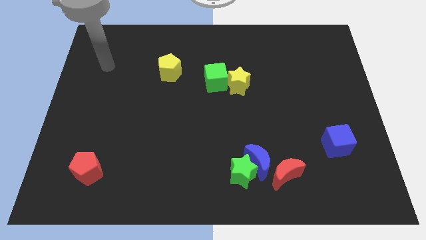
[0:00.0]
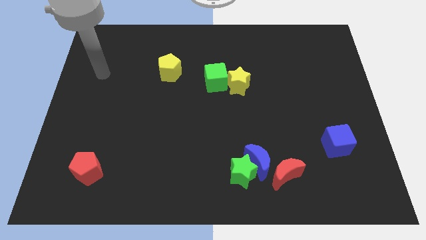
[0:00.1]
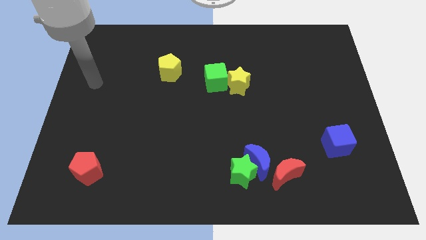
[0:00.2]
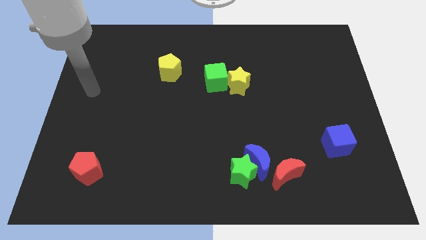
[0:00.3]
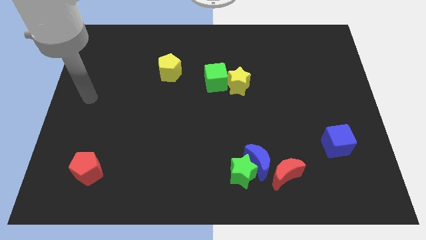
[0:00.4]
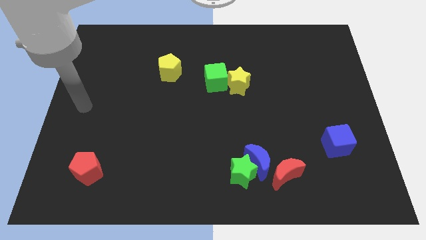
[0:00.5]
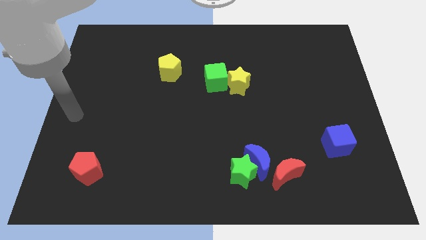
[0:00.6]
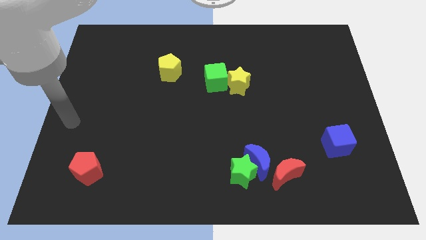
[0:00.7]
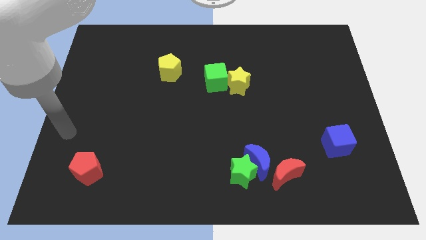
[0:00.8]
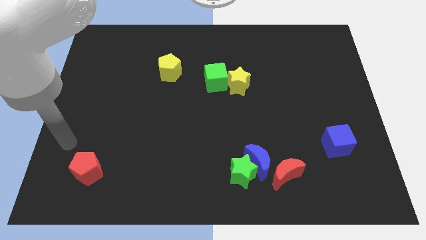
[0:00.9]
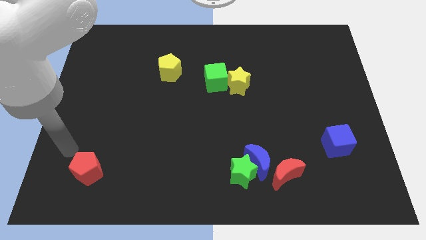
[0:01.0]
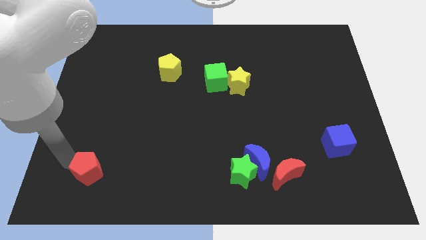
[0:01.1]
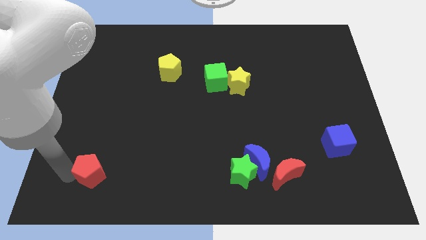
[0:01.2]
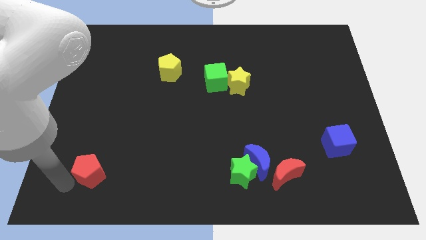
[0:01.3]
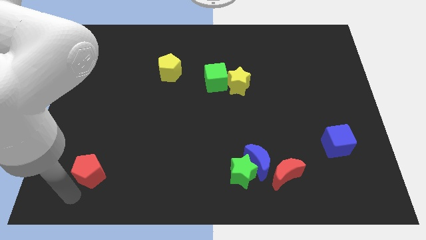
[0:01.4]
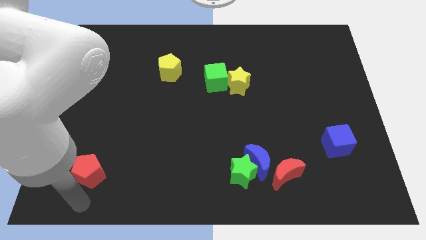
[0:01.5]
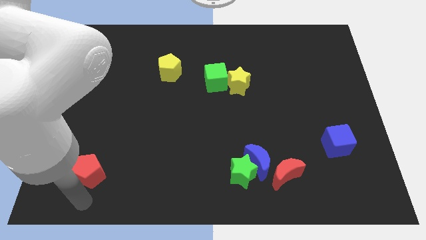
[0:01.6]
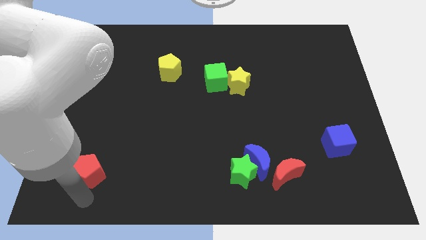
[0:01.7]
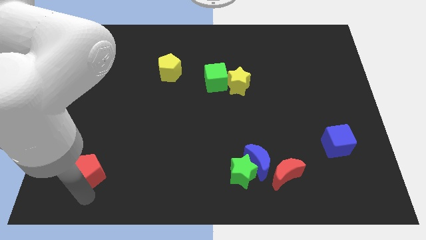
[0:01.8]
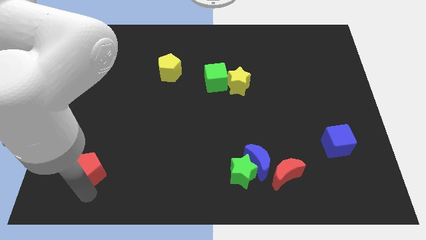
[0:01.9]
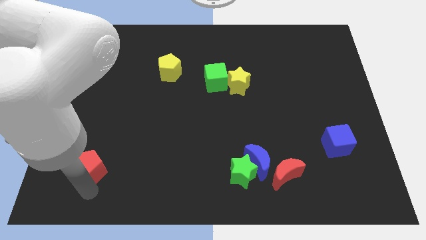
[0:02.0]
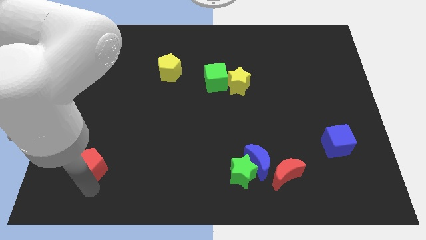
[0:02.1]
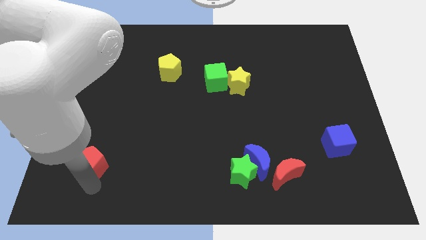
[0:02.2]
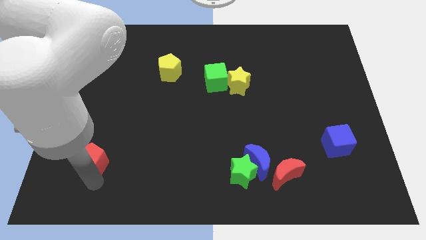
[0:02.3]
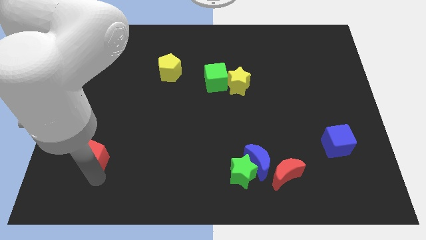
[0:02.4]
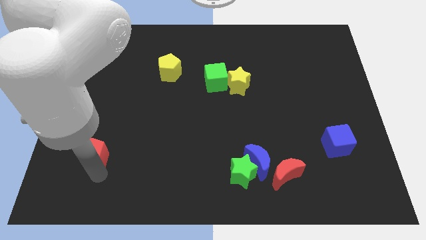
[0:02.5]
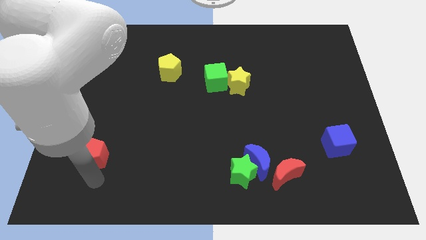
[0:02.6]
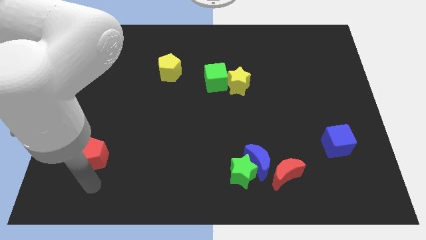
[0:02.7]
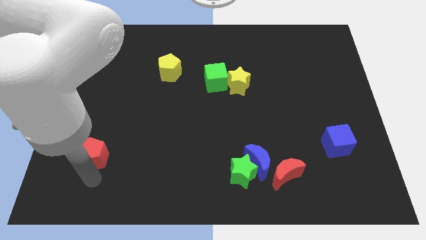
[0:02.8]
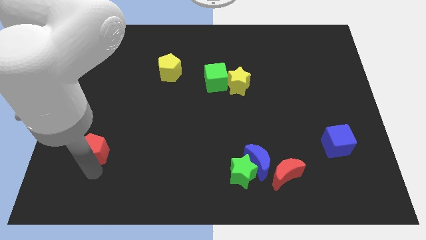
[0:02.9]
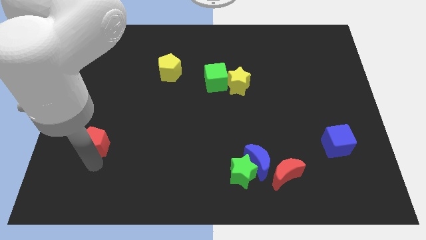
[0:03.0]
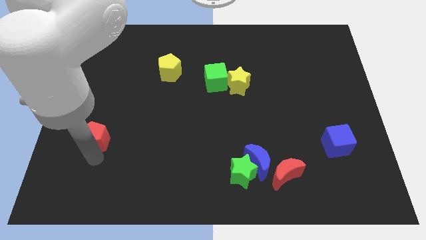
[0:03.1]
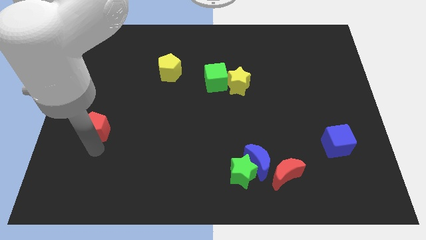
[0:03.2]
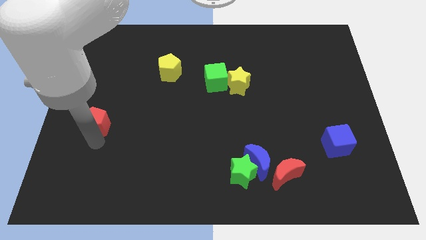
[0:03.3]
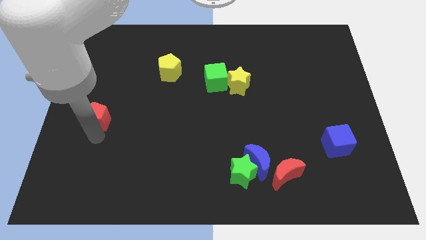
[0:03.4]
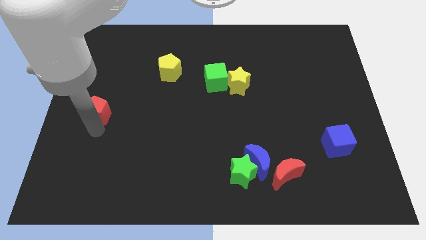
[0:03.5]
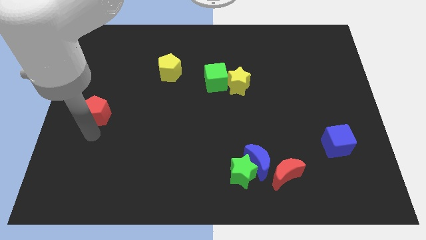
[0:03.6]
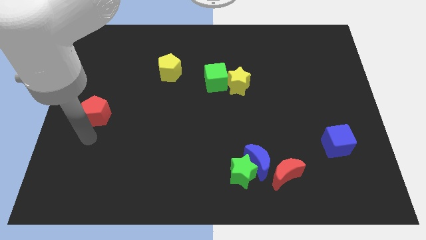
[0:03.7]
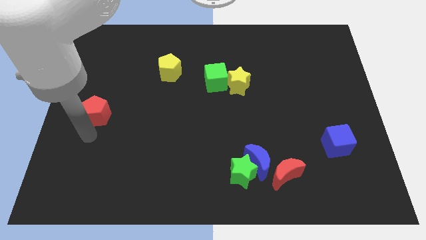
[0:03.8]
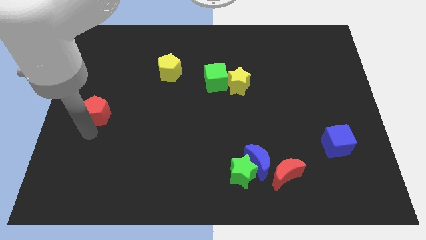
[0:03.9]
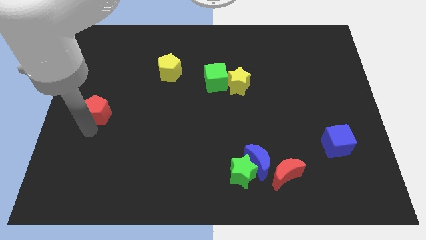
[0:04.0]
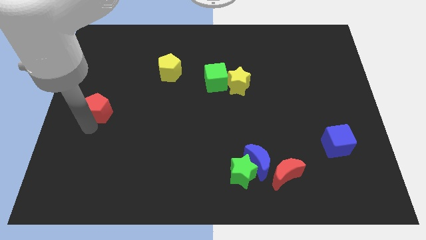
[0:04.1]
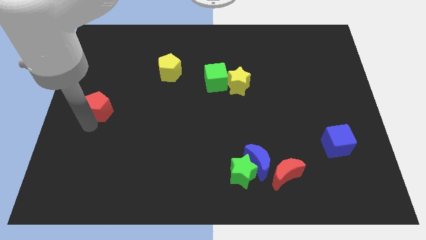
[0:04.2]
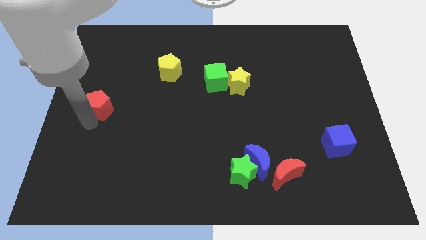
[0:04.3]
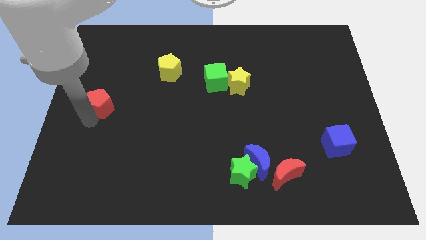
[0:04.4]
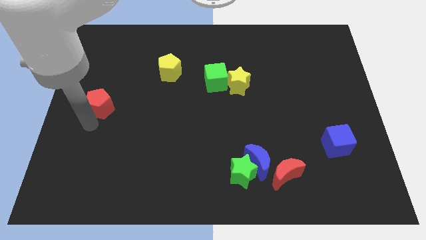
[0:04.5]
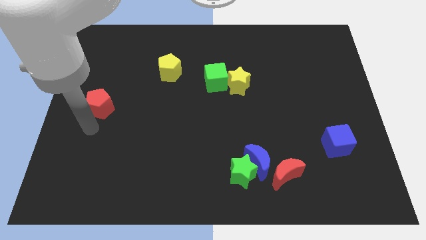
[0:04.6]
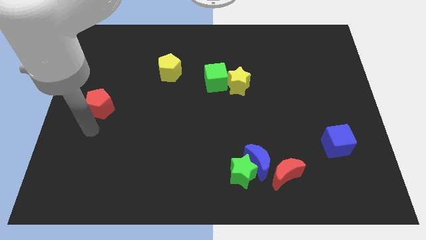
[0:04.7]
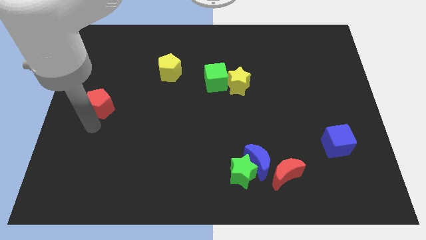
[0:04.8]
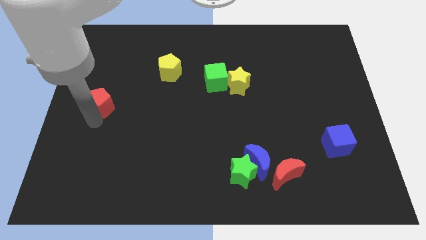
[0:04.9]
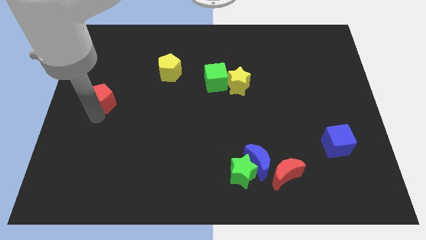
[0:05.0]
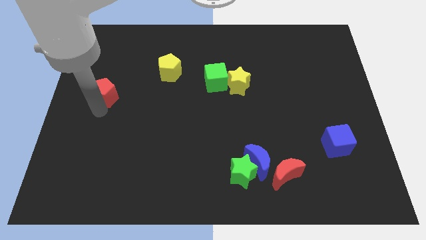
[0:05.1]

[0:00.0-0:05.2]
push the red pentagon up

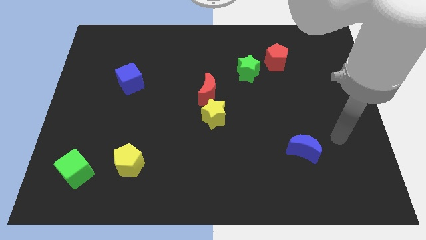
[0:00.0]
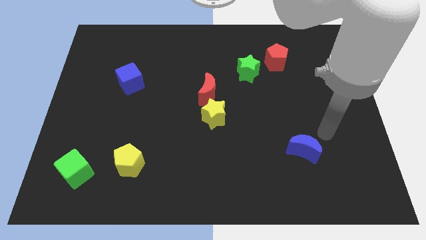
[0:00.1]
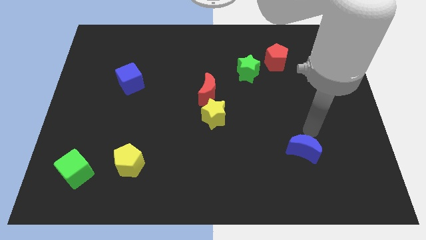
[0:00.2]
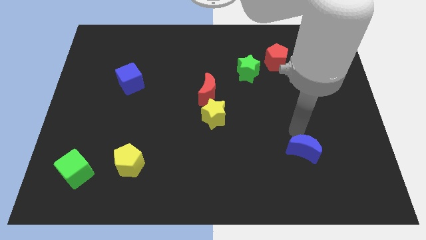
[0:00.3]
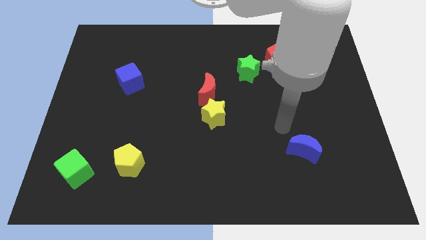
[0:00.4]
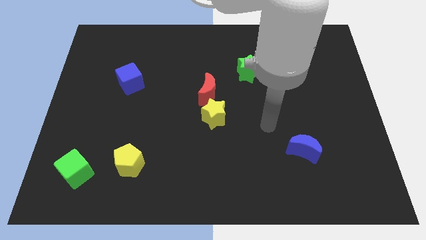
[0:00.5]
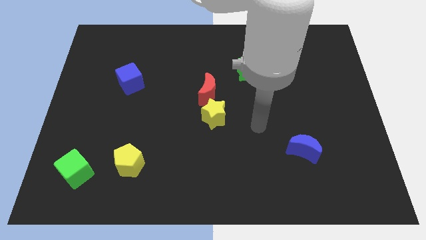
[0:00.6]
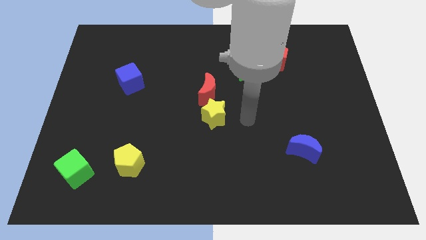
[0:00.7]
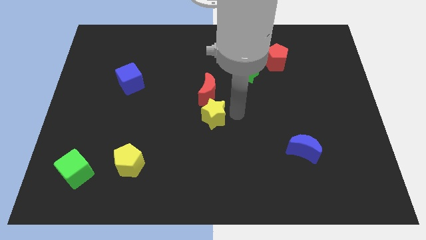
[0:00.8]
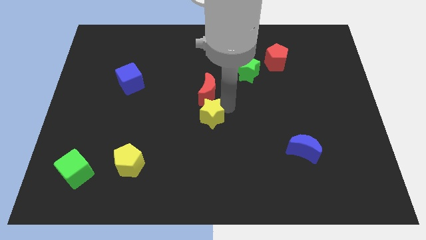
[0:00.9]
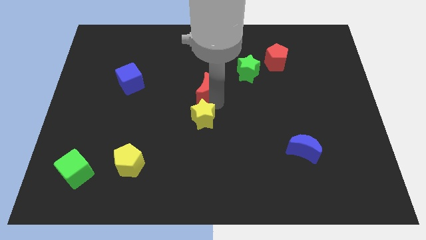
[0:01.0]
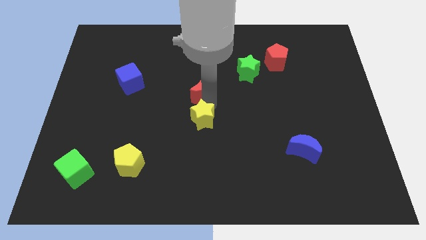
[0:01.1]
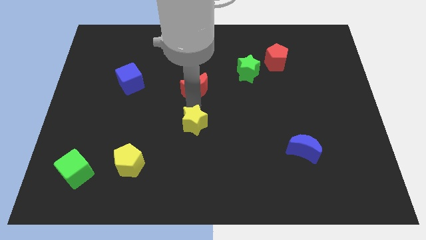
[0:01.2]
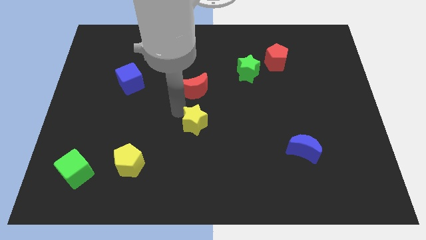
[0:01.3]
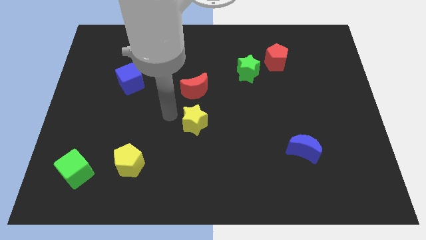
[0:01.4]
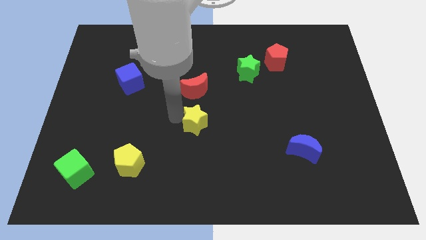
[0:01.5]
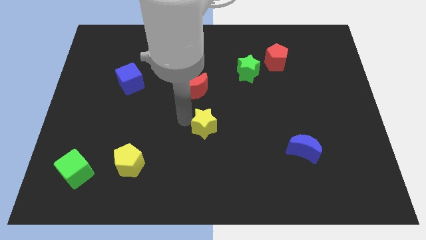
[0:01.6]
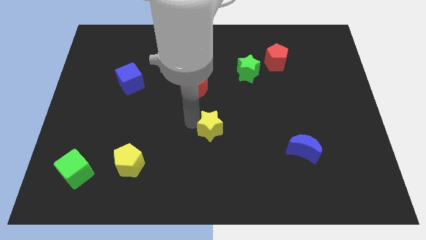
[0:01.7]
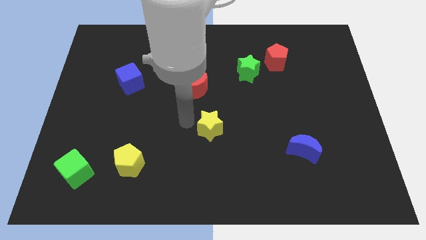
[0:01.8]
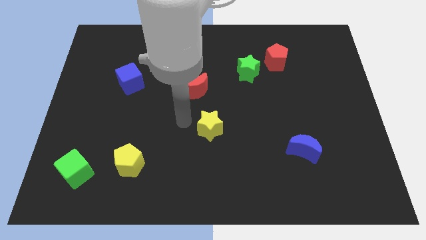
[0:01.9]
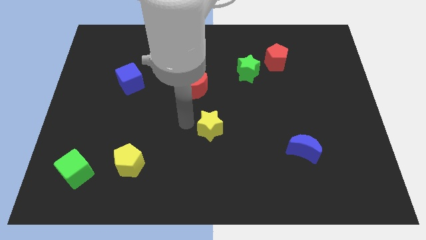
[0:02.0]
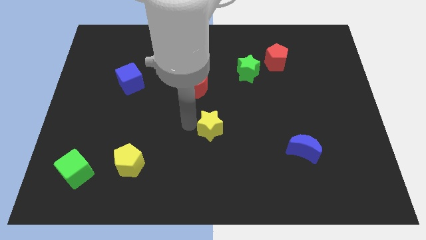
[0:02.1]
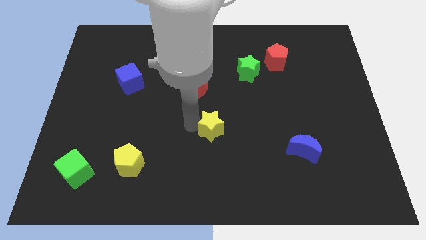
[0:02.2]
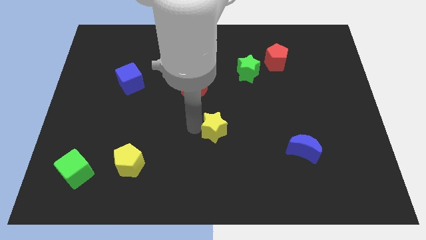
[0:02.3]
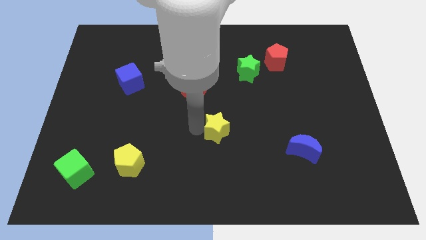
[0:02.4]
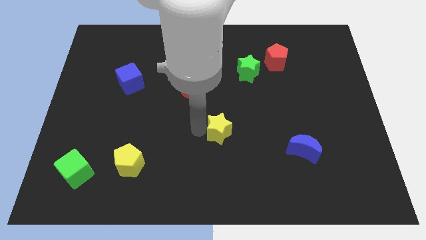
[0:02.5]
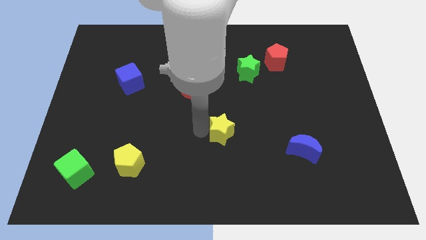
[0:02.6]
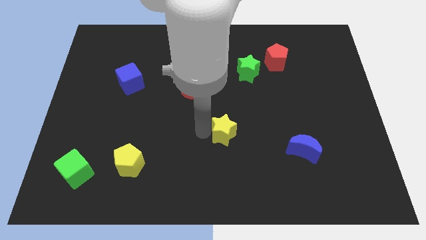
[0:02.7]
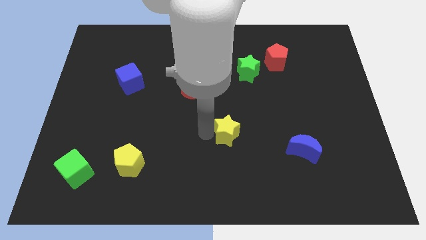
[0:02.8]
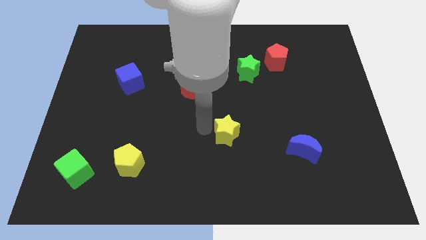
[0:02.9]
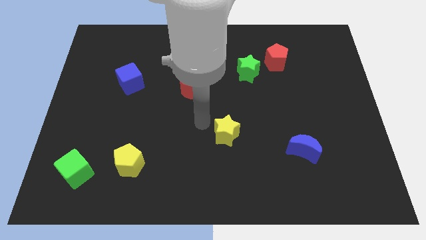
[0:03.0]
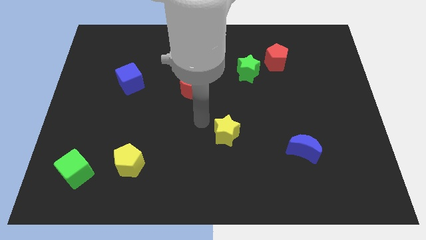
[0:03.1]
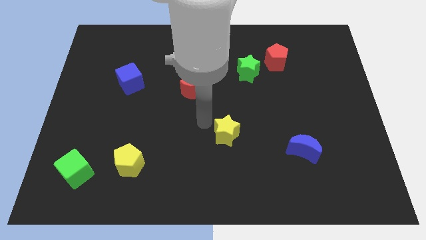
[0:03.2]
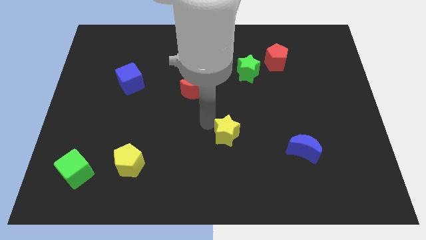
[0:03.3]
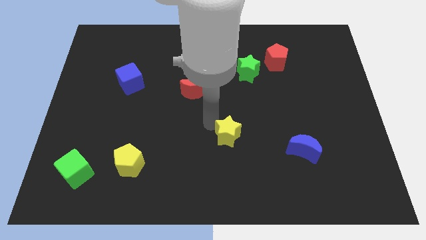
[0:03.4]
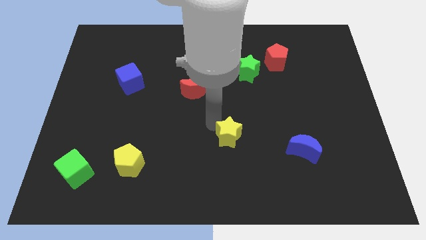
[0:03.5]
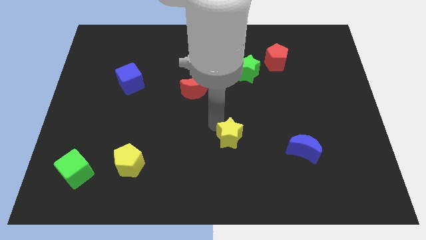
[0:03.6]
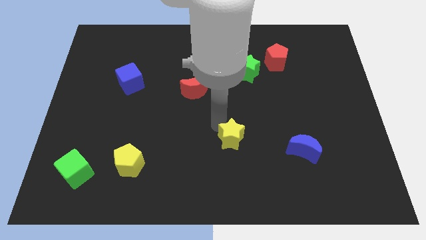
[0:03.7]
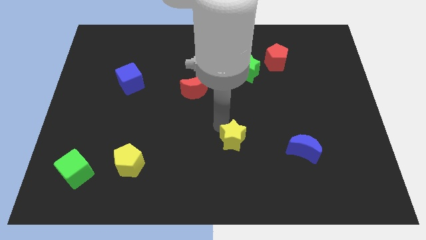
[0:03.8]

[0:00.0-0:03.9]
slightly push the yellow star down and right diagonally
